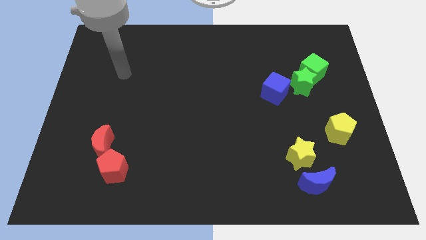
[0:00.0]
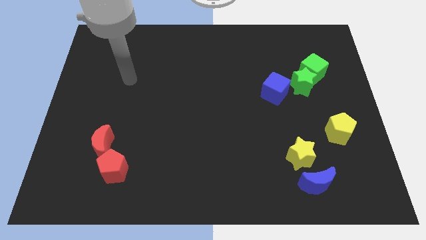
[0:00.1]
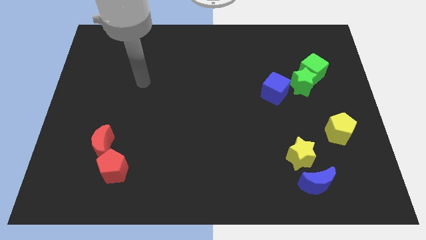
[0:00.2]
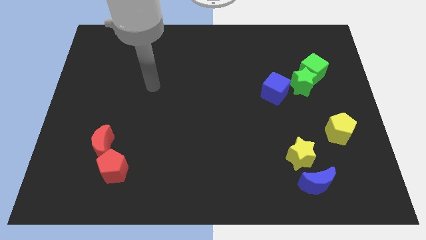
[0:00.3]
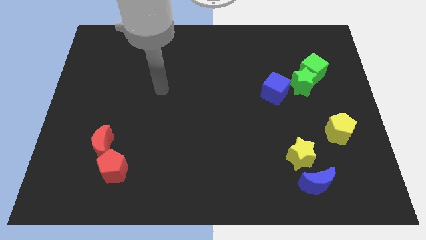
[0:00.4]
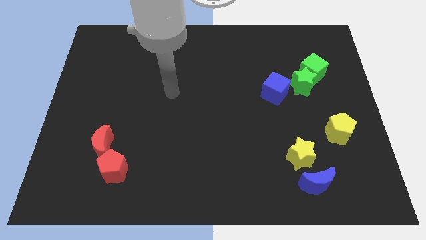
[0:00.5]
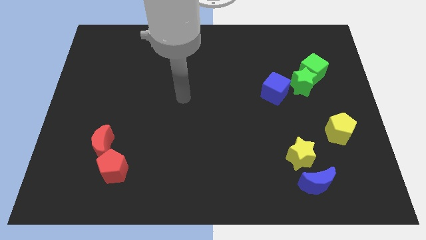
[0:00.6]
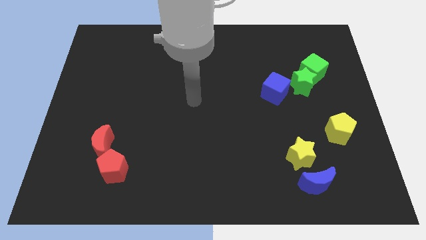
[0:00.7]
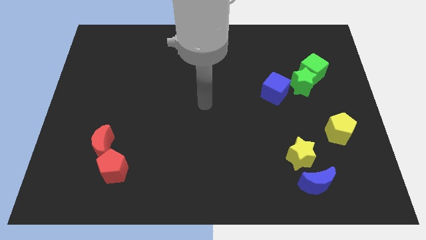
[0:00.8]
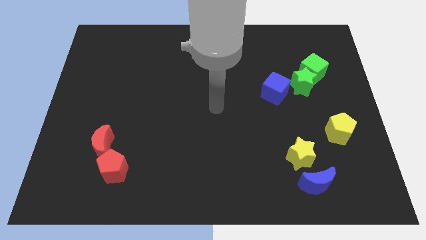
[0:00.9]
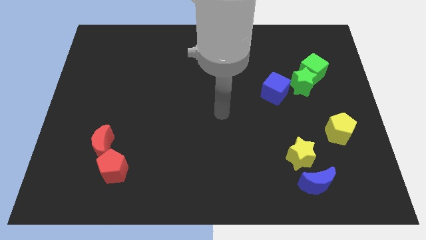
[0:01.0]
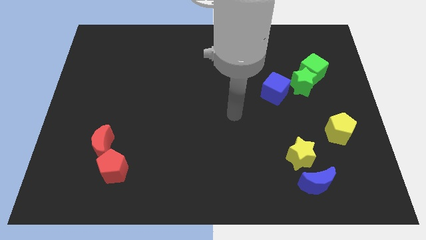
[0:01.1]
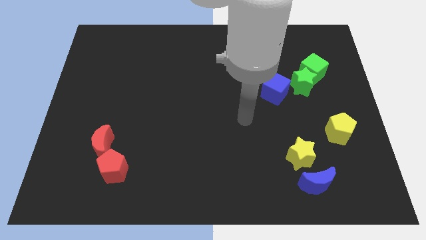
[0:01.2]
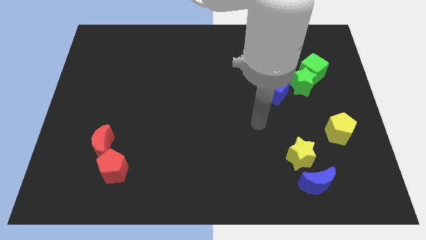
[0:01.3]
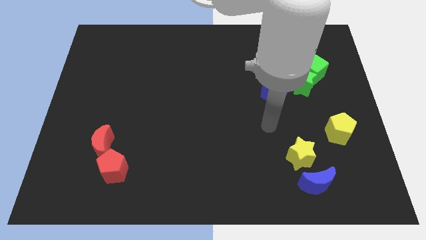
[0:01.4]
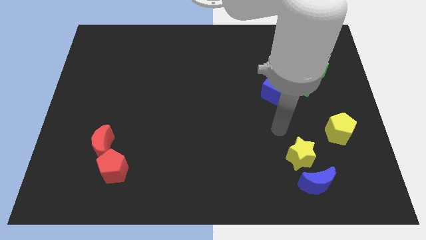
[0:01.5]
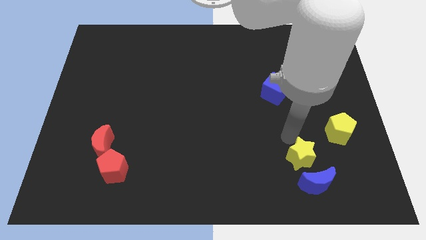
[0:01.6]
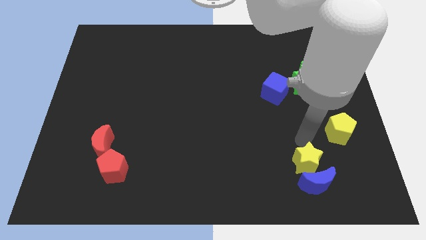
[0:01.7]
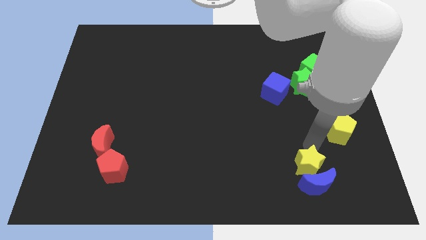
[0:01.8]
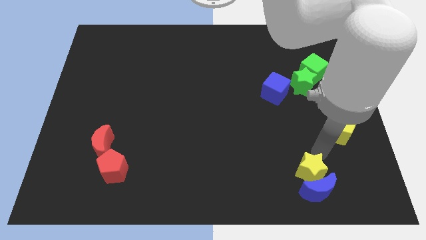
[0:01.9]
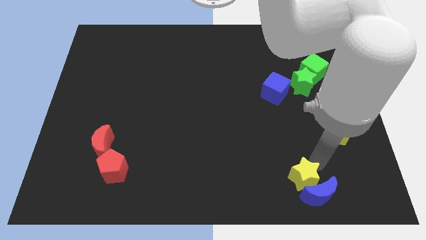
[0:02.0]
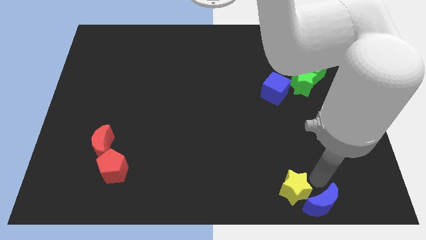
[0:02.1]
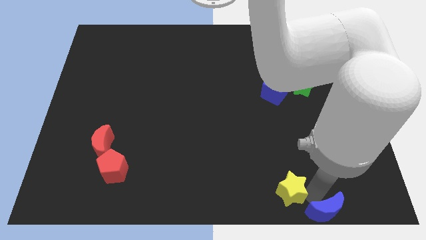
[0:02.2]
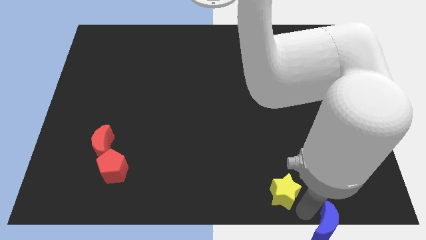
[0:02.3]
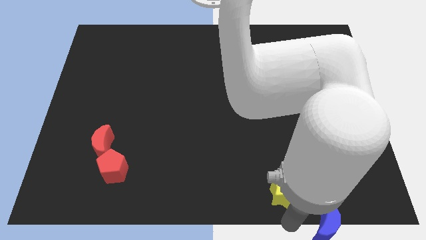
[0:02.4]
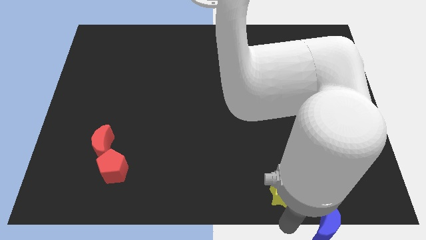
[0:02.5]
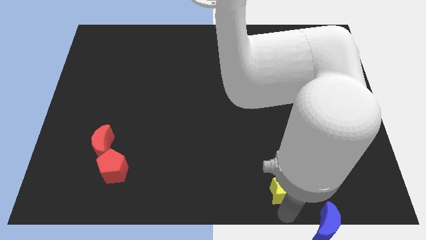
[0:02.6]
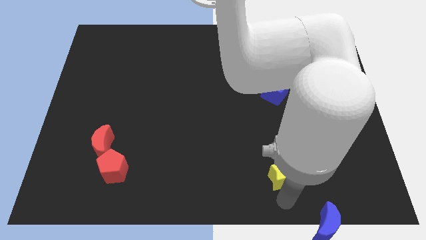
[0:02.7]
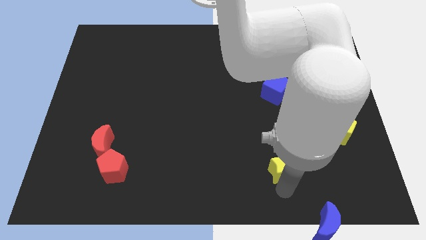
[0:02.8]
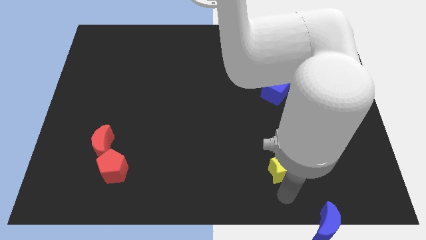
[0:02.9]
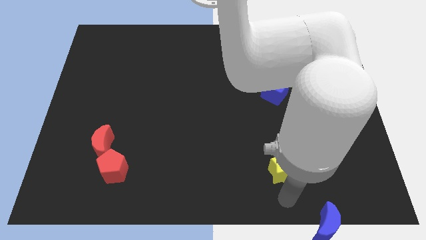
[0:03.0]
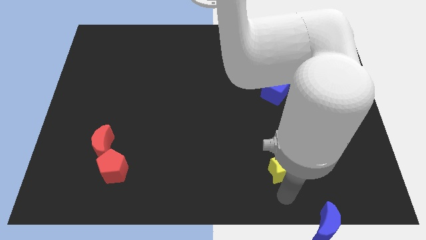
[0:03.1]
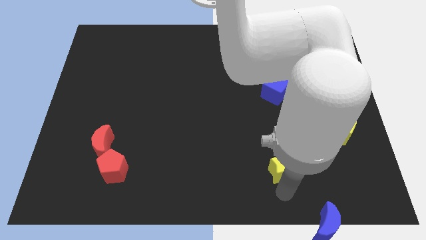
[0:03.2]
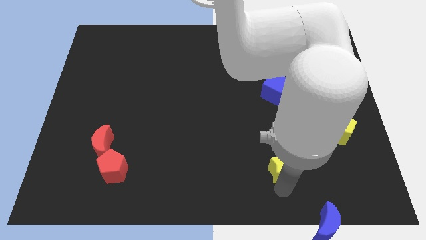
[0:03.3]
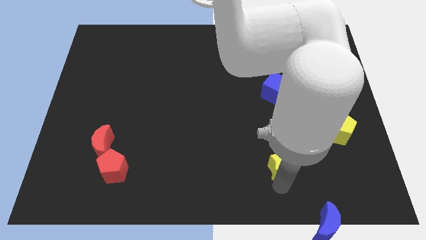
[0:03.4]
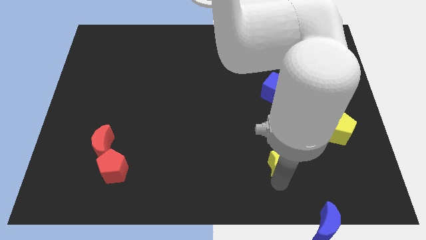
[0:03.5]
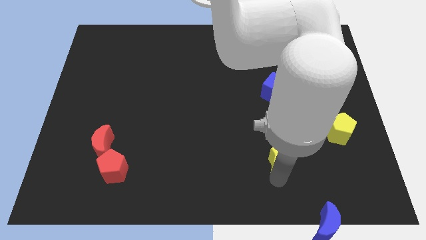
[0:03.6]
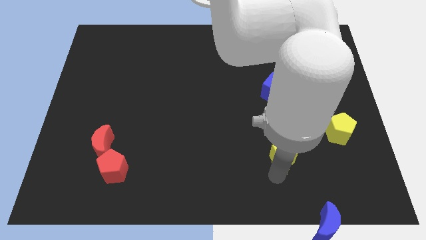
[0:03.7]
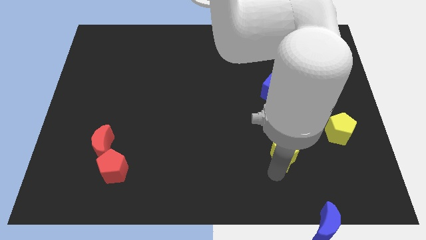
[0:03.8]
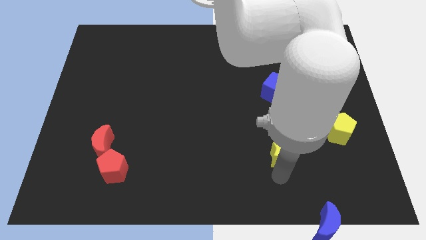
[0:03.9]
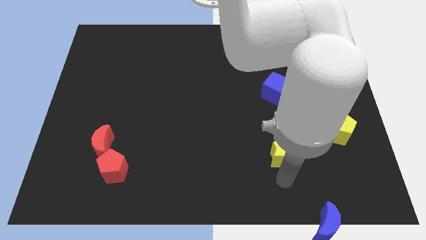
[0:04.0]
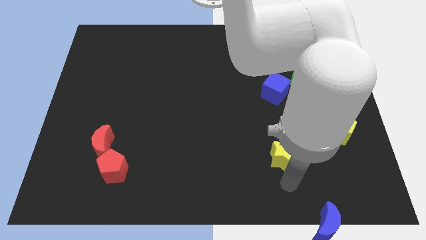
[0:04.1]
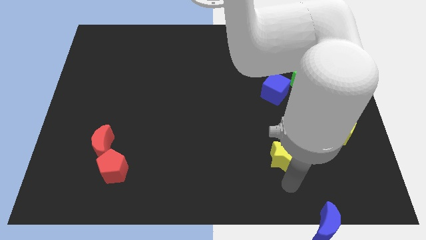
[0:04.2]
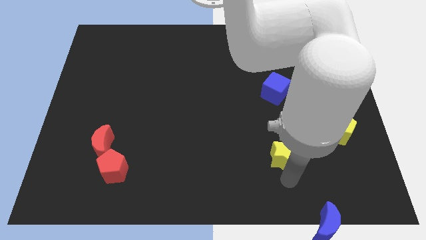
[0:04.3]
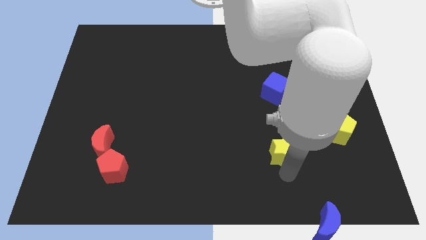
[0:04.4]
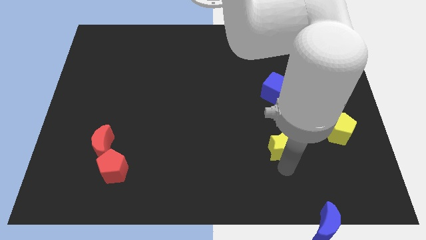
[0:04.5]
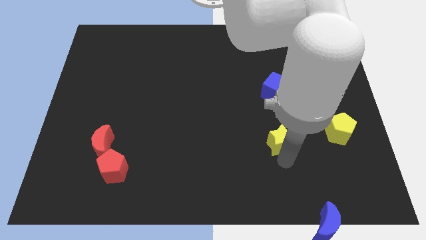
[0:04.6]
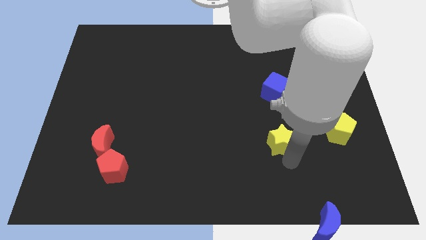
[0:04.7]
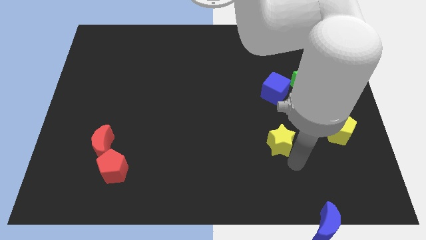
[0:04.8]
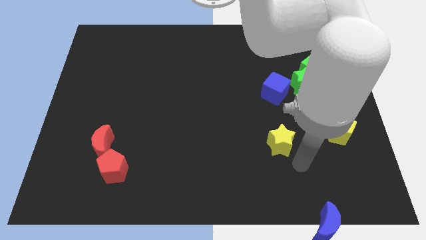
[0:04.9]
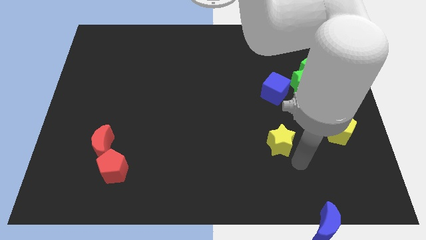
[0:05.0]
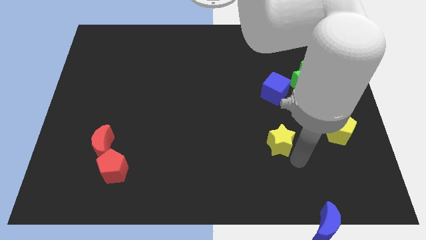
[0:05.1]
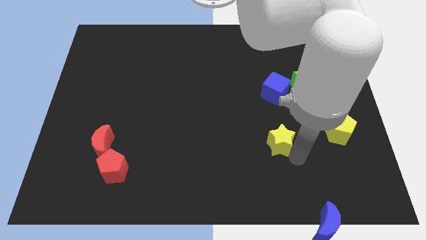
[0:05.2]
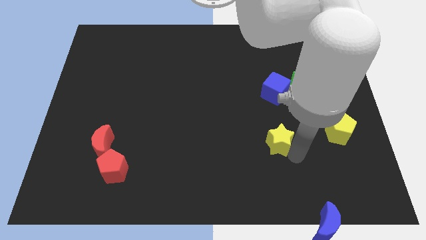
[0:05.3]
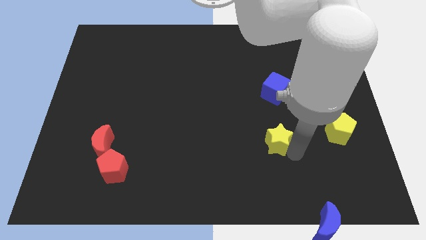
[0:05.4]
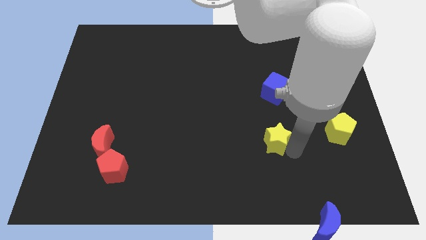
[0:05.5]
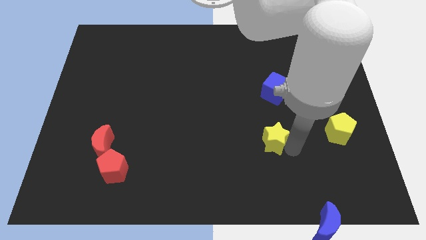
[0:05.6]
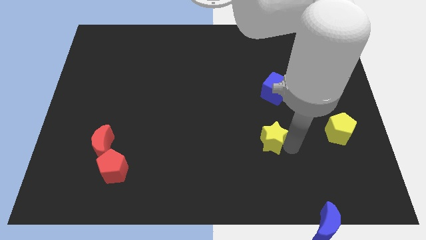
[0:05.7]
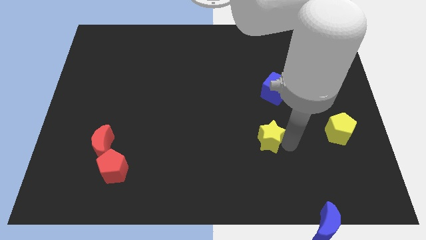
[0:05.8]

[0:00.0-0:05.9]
move the yellow star a bit up and then to the left

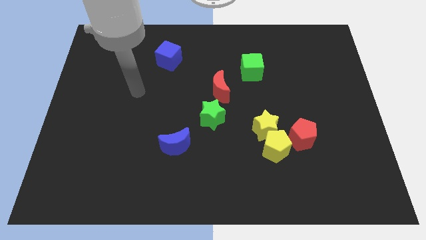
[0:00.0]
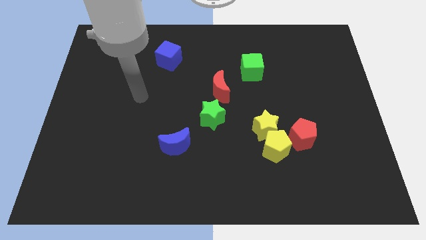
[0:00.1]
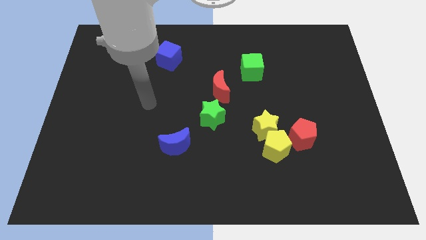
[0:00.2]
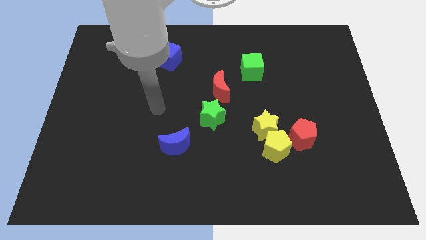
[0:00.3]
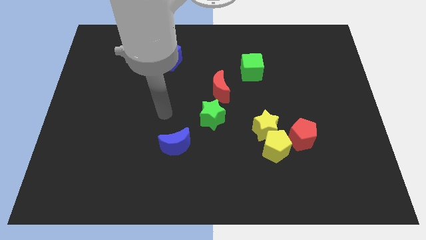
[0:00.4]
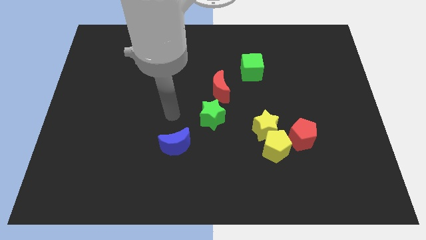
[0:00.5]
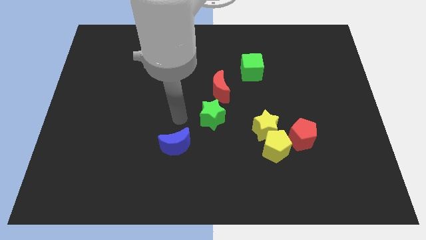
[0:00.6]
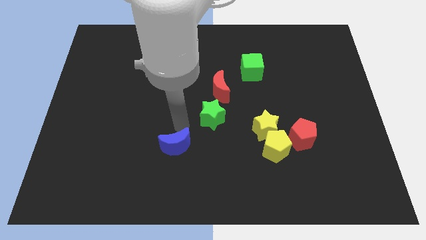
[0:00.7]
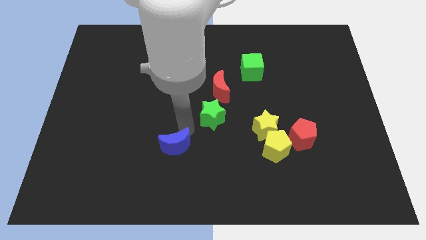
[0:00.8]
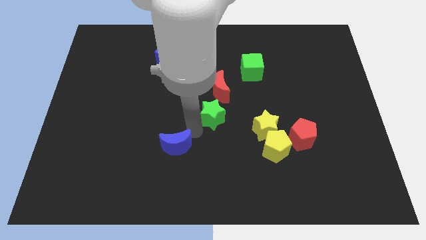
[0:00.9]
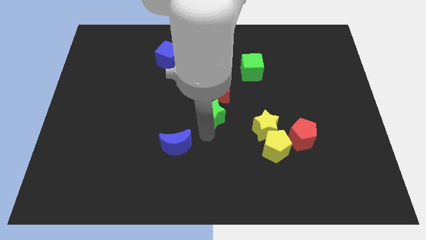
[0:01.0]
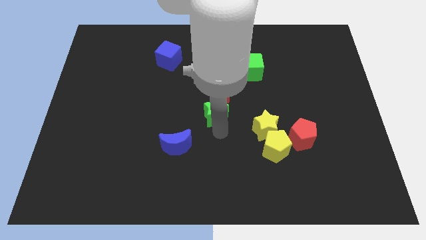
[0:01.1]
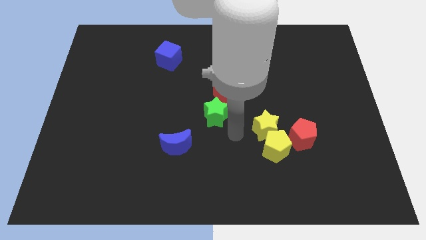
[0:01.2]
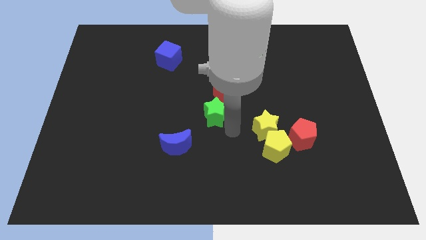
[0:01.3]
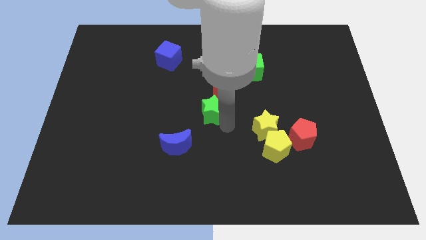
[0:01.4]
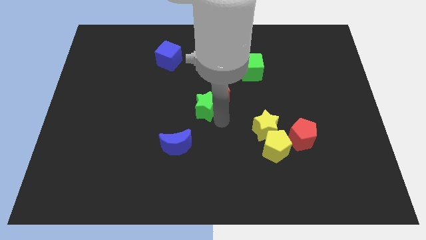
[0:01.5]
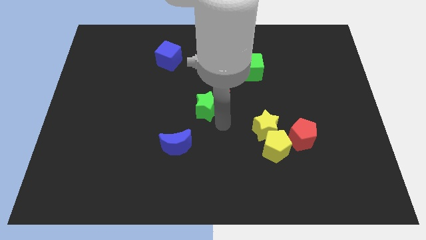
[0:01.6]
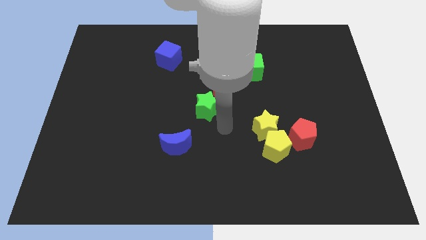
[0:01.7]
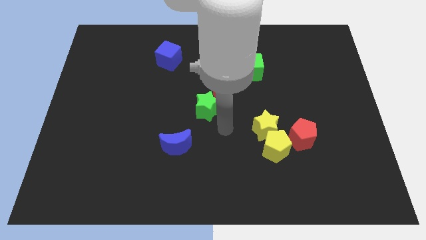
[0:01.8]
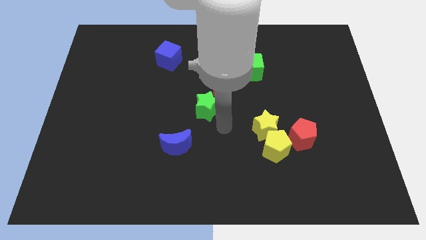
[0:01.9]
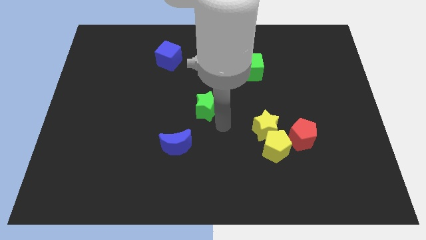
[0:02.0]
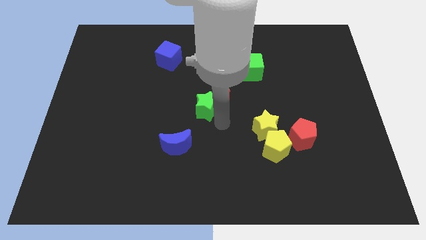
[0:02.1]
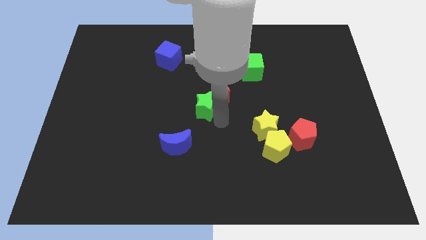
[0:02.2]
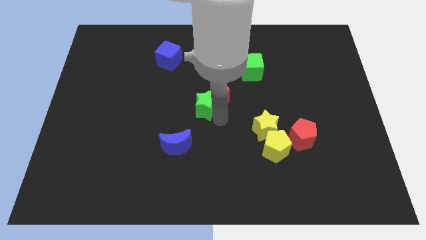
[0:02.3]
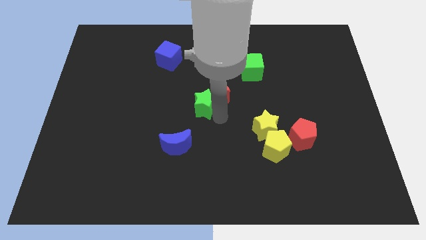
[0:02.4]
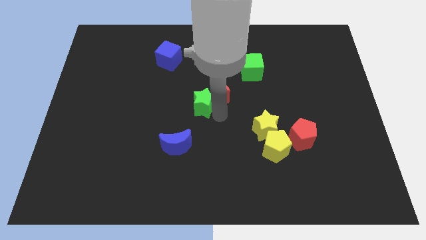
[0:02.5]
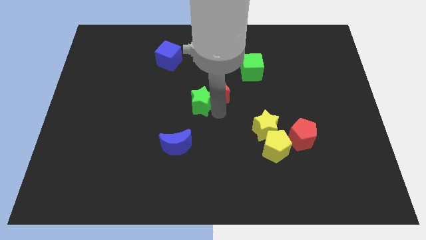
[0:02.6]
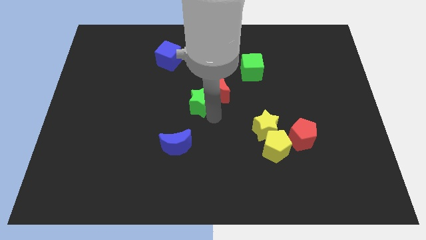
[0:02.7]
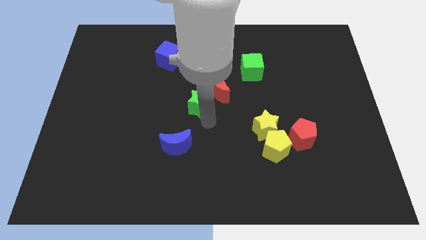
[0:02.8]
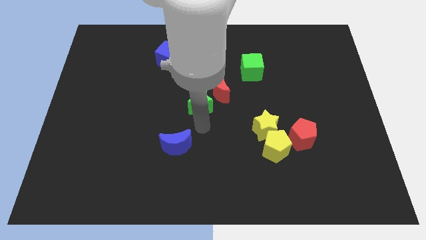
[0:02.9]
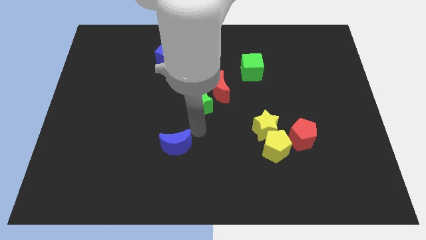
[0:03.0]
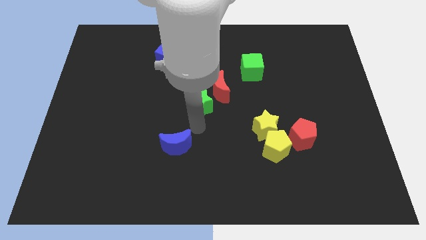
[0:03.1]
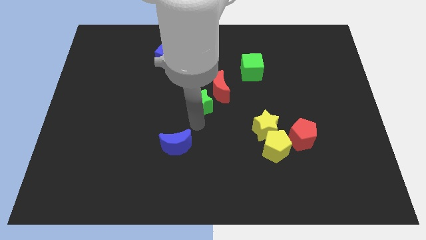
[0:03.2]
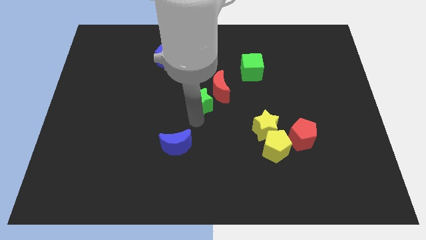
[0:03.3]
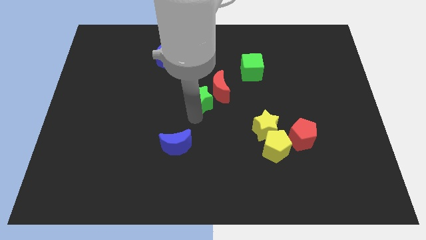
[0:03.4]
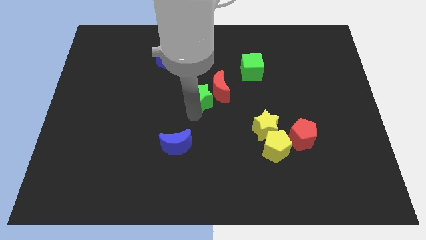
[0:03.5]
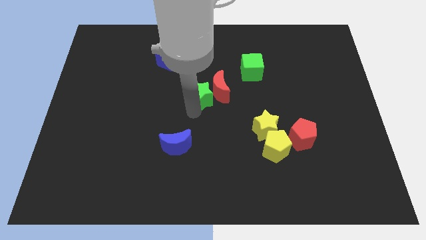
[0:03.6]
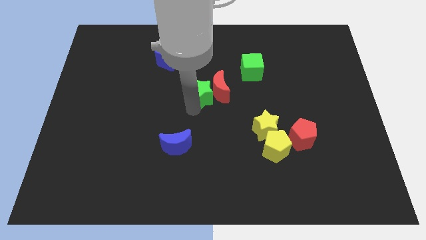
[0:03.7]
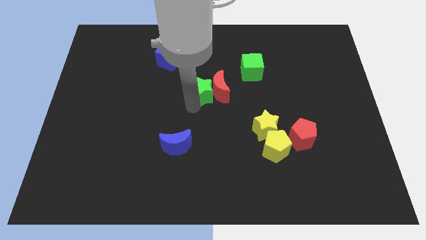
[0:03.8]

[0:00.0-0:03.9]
push the green star up a little
